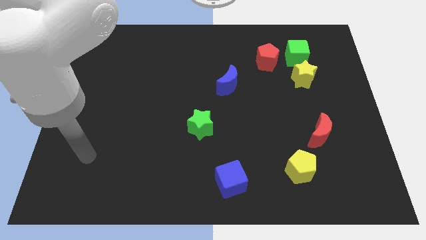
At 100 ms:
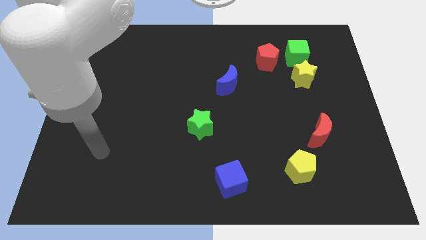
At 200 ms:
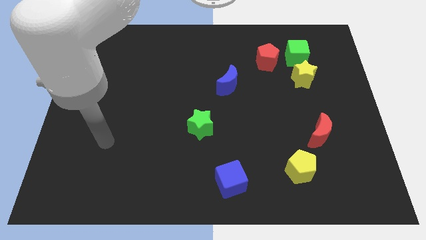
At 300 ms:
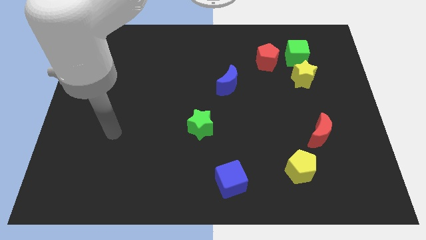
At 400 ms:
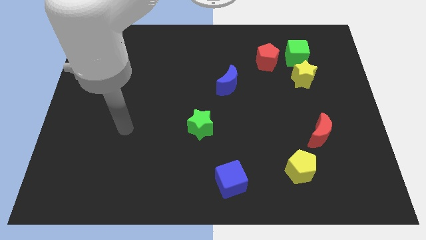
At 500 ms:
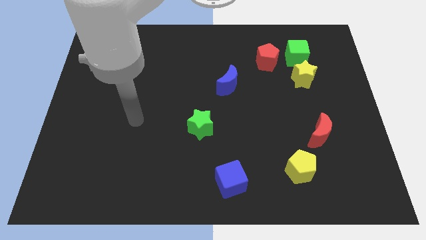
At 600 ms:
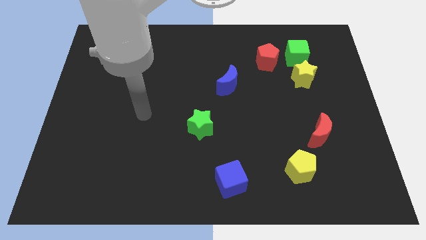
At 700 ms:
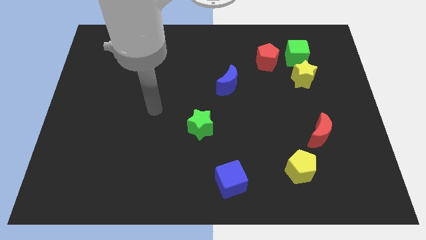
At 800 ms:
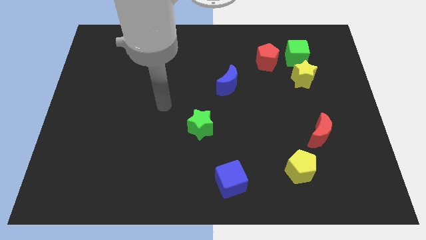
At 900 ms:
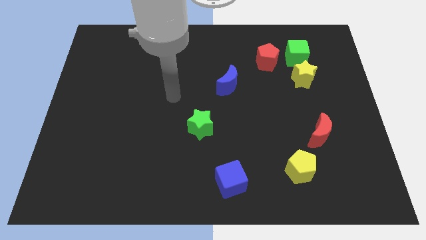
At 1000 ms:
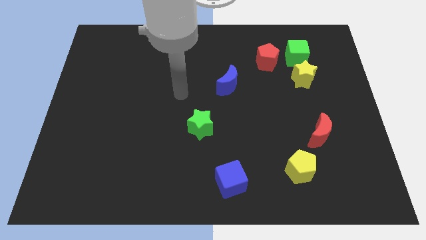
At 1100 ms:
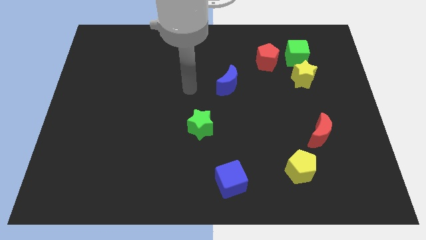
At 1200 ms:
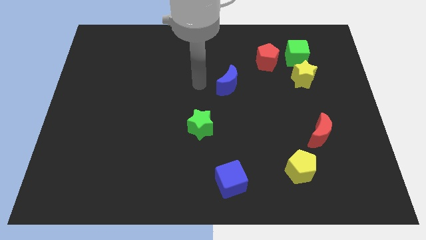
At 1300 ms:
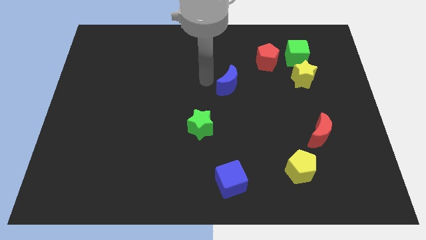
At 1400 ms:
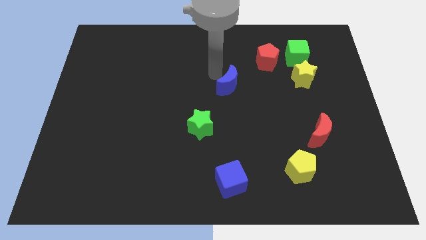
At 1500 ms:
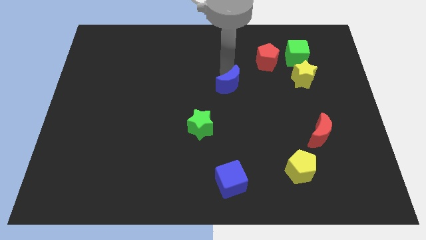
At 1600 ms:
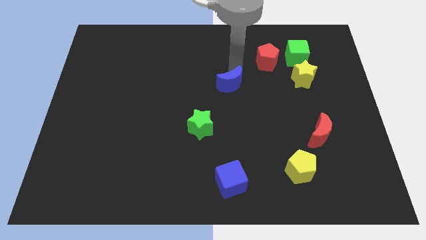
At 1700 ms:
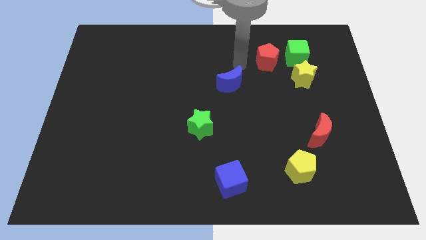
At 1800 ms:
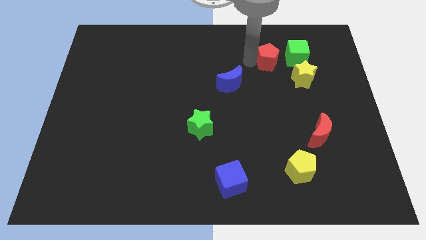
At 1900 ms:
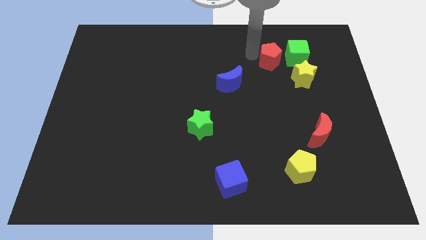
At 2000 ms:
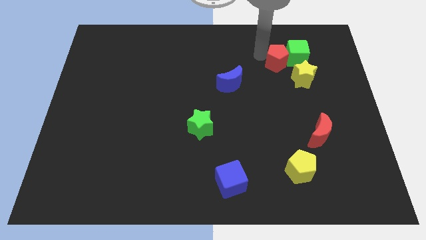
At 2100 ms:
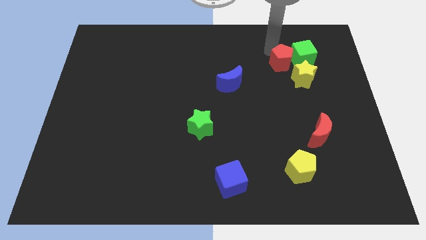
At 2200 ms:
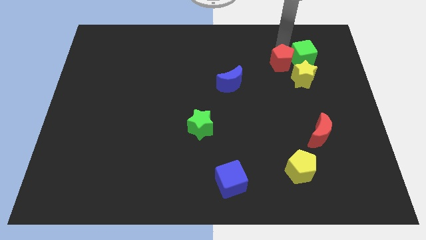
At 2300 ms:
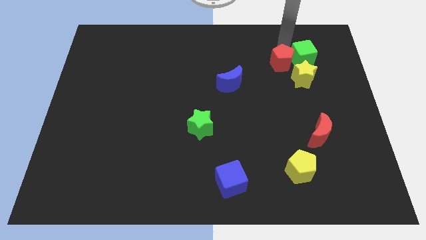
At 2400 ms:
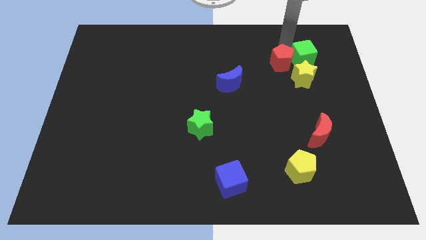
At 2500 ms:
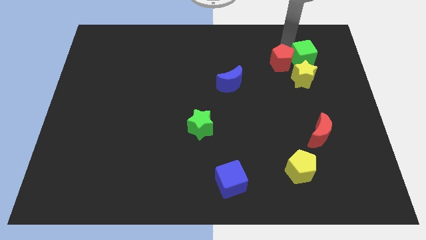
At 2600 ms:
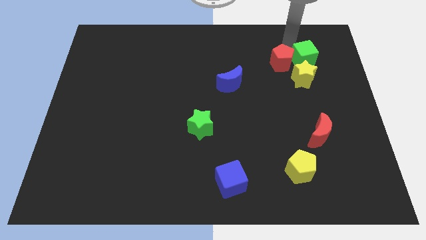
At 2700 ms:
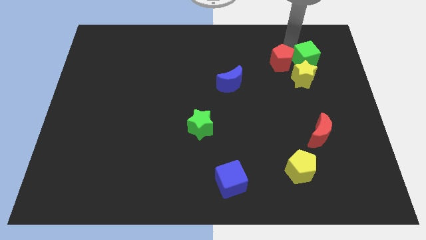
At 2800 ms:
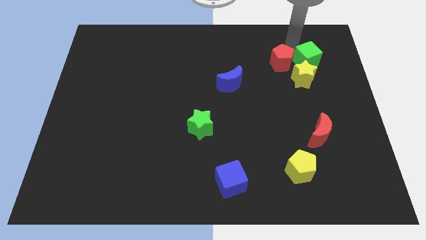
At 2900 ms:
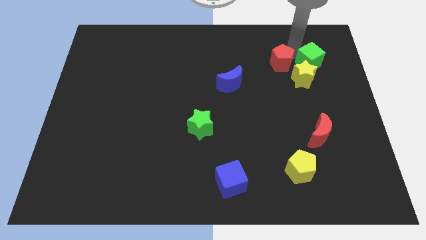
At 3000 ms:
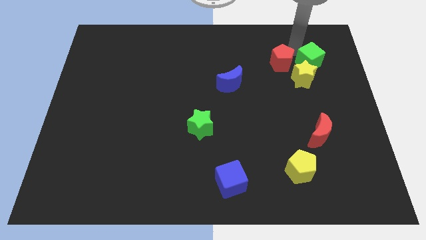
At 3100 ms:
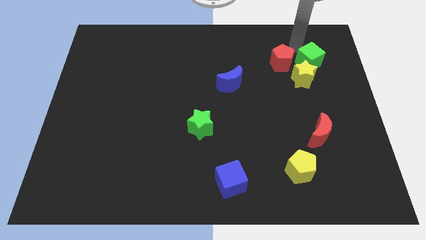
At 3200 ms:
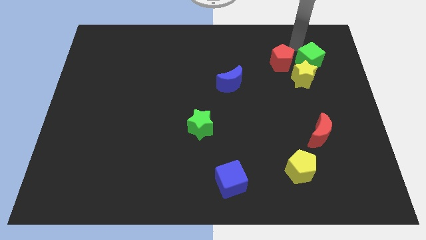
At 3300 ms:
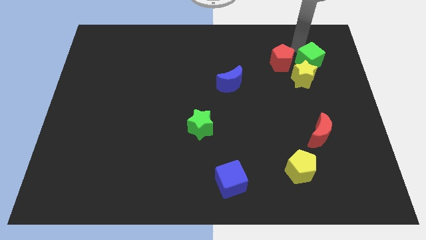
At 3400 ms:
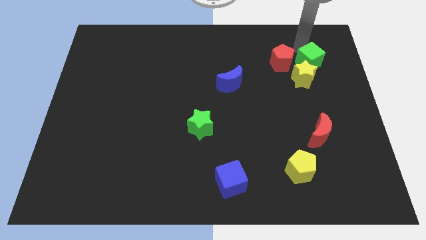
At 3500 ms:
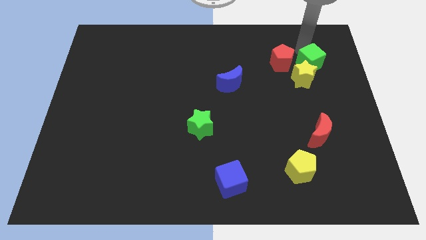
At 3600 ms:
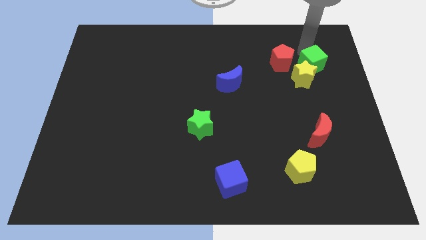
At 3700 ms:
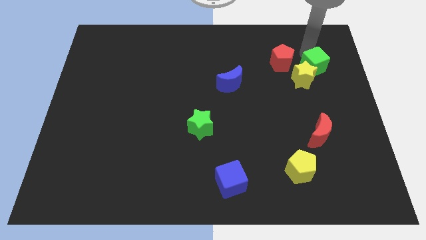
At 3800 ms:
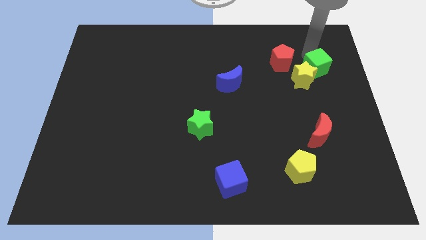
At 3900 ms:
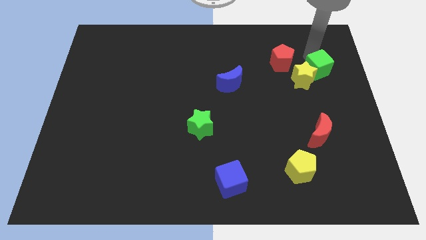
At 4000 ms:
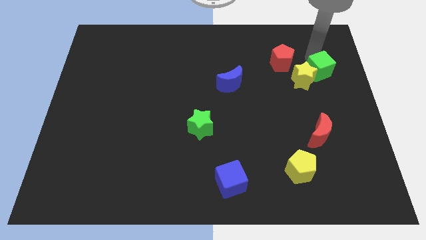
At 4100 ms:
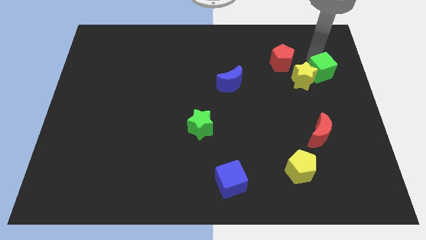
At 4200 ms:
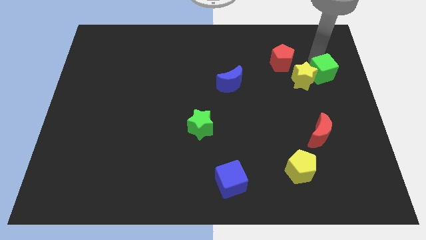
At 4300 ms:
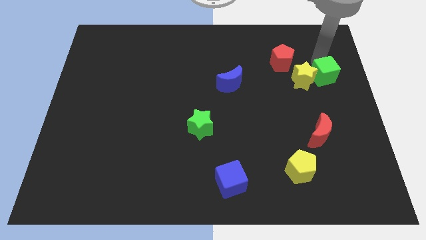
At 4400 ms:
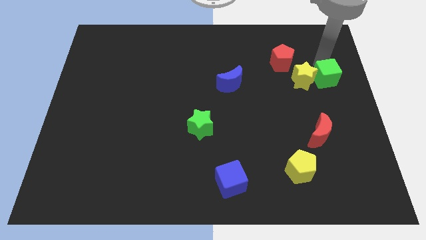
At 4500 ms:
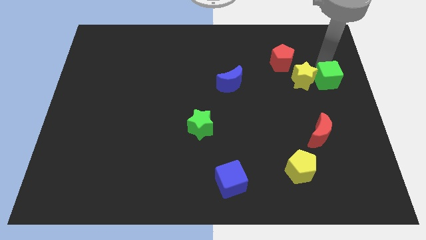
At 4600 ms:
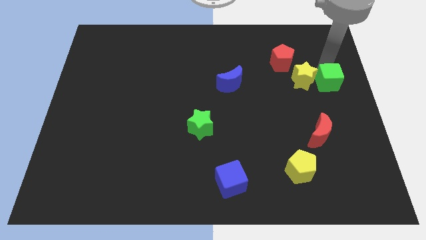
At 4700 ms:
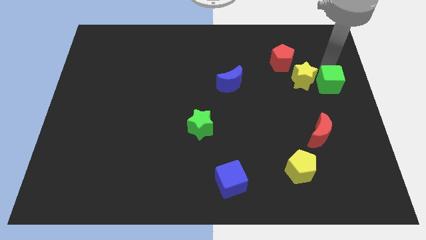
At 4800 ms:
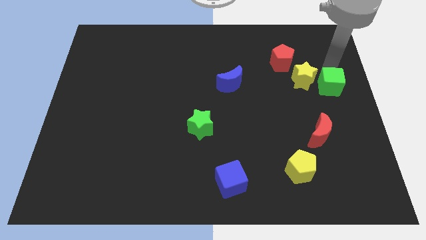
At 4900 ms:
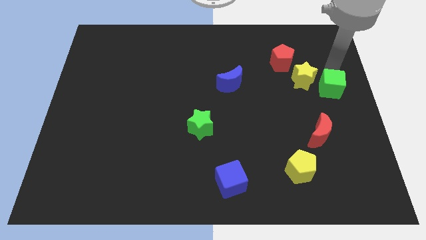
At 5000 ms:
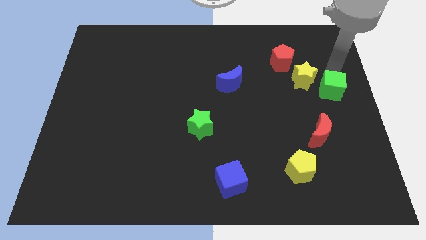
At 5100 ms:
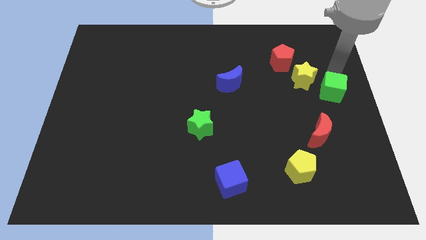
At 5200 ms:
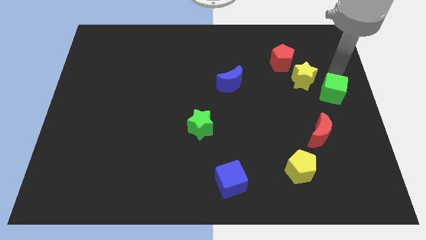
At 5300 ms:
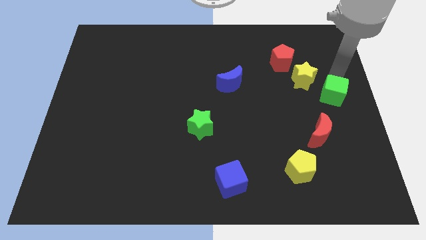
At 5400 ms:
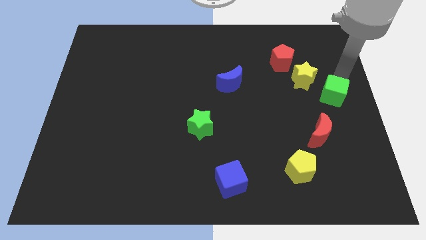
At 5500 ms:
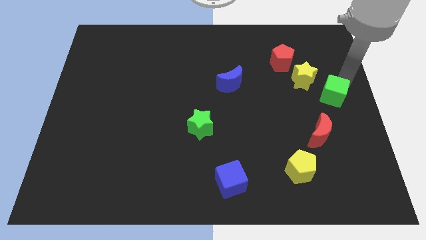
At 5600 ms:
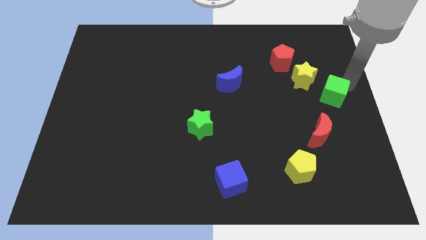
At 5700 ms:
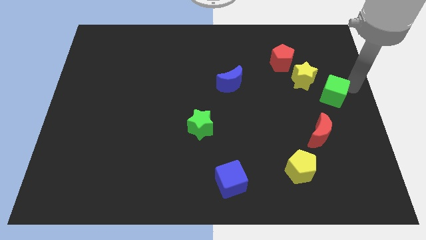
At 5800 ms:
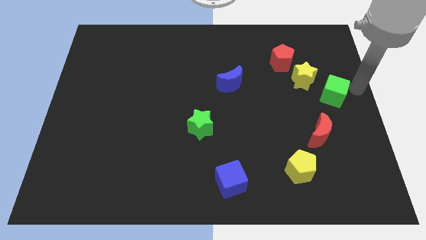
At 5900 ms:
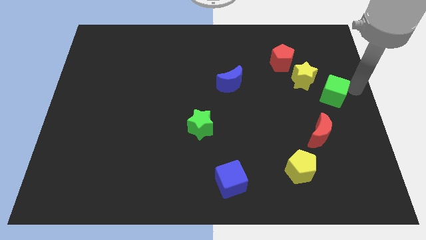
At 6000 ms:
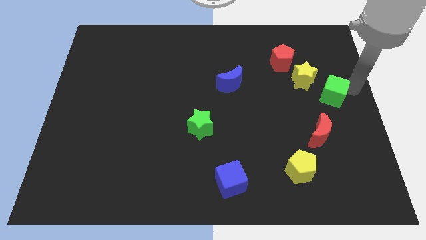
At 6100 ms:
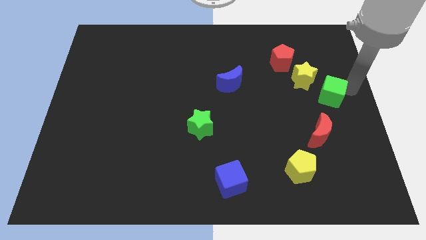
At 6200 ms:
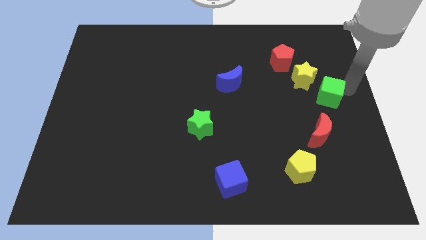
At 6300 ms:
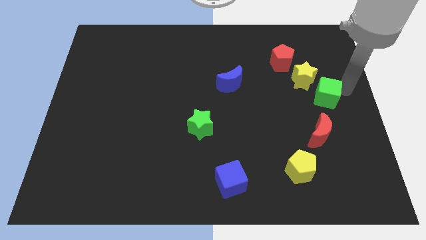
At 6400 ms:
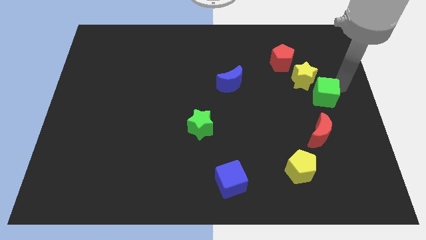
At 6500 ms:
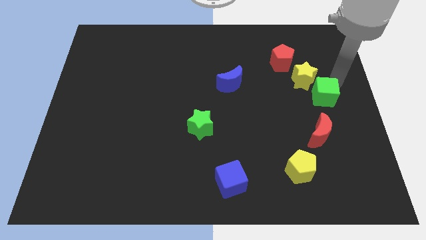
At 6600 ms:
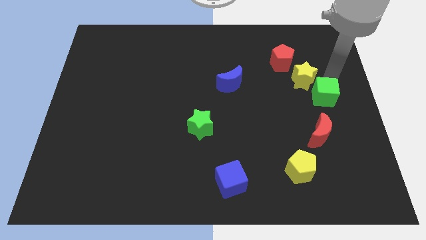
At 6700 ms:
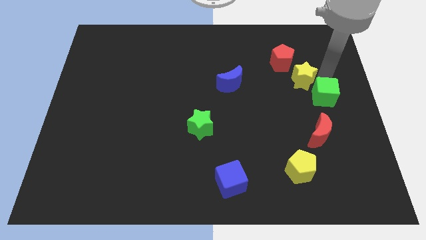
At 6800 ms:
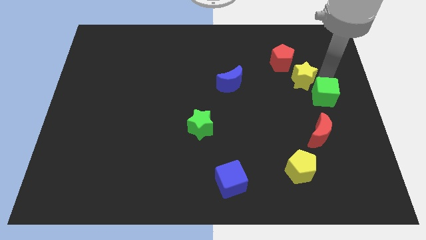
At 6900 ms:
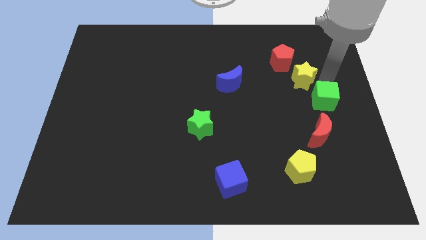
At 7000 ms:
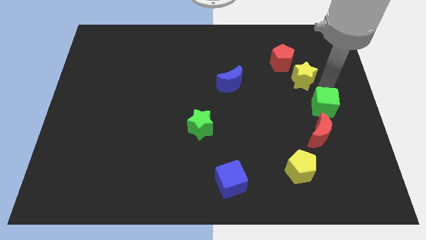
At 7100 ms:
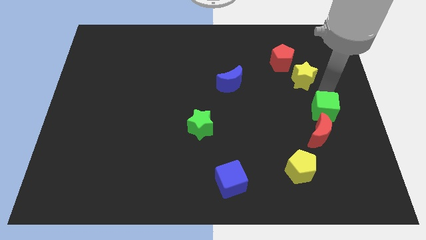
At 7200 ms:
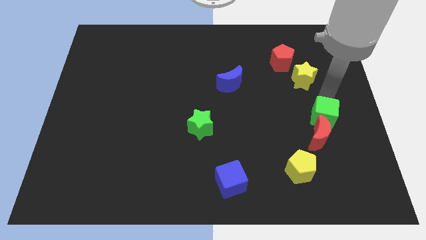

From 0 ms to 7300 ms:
slide the green cube close to the red moon
